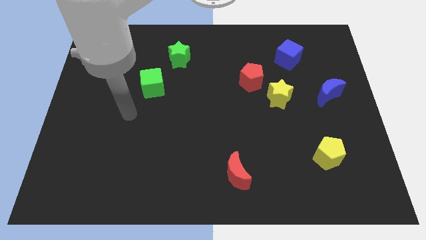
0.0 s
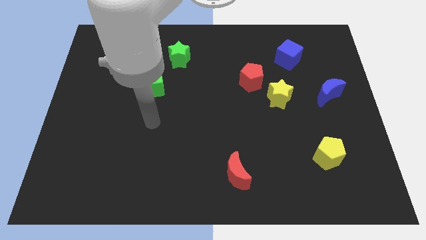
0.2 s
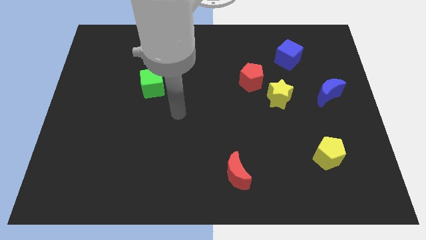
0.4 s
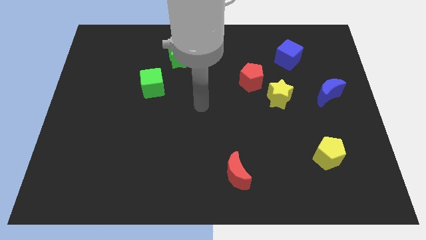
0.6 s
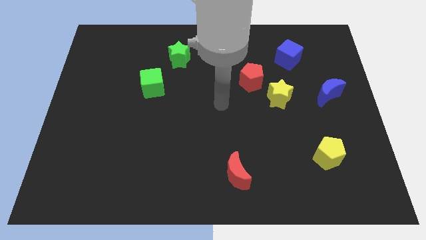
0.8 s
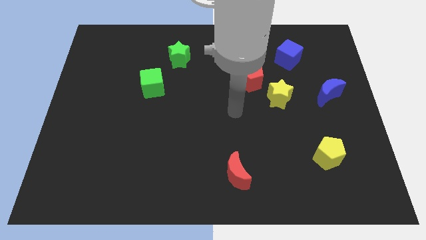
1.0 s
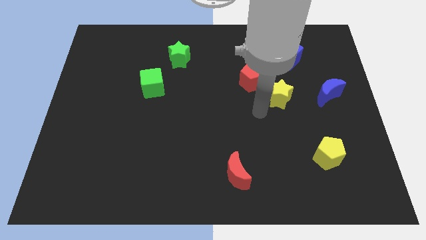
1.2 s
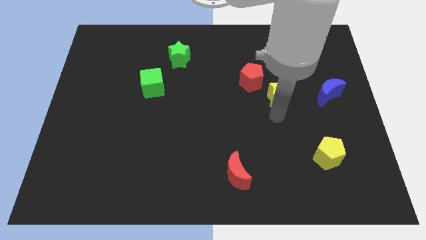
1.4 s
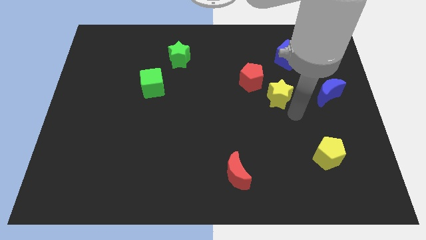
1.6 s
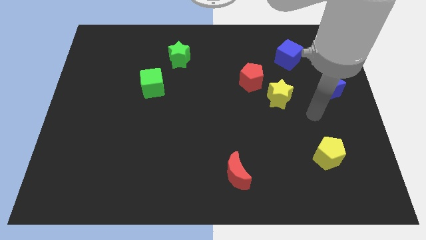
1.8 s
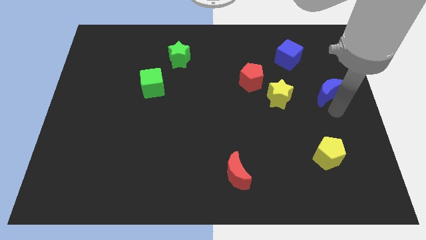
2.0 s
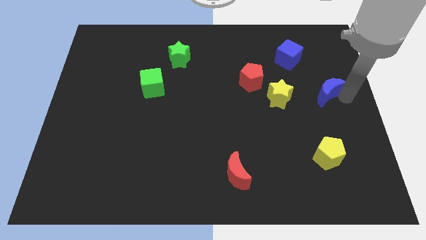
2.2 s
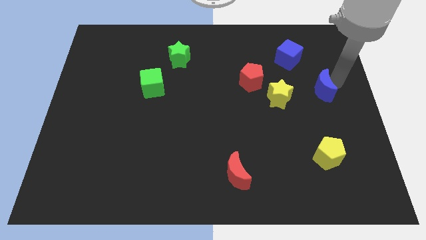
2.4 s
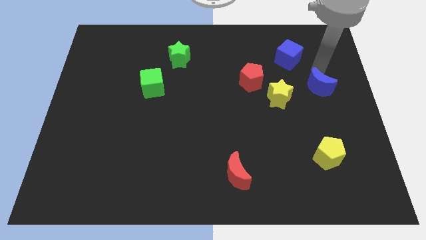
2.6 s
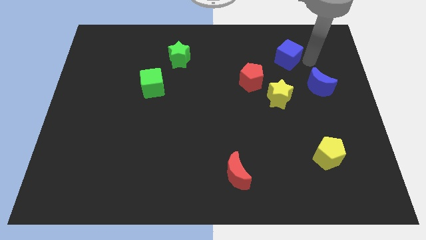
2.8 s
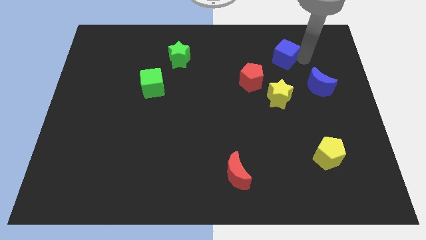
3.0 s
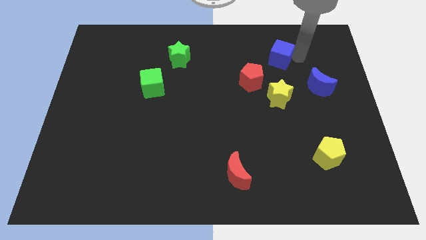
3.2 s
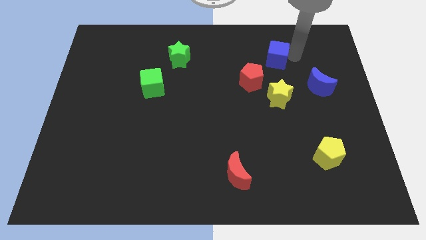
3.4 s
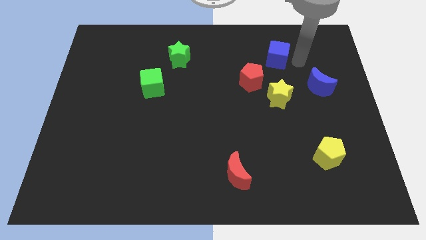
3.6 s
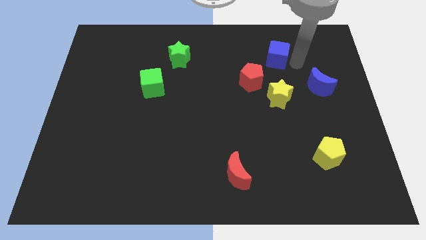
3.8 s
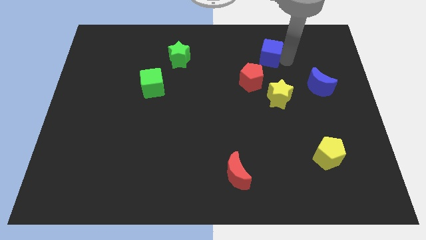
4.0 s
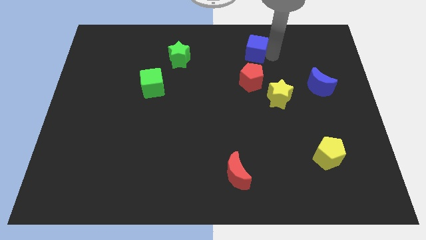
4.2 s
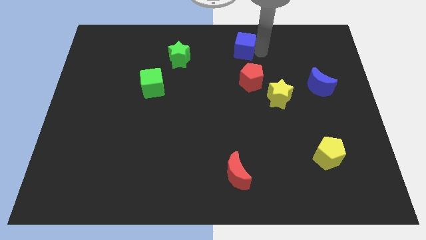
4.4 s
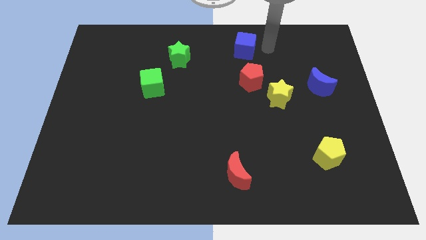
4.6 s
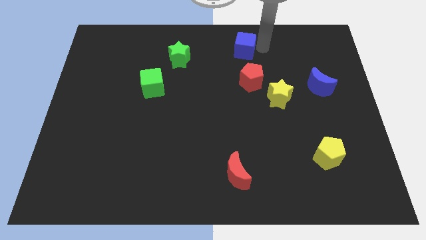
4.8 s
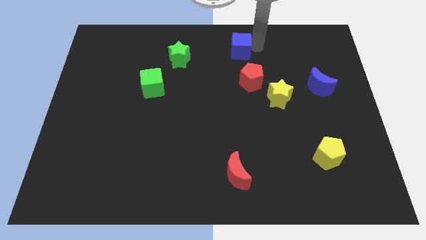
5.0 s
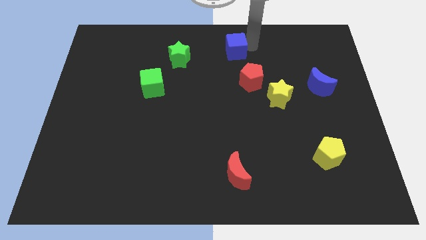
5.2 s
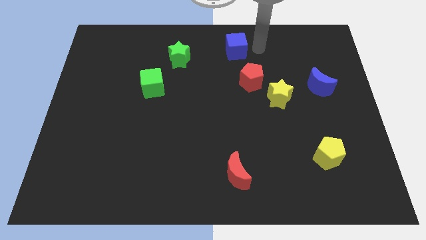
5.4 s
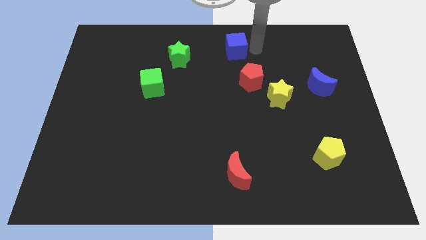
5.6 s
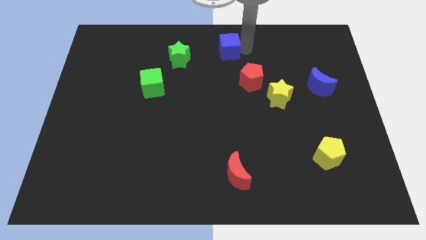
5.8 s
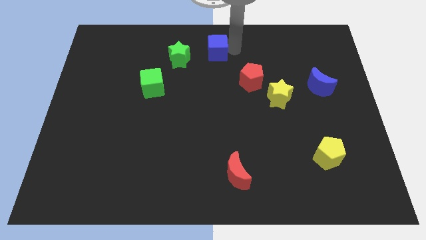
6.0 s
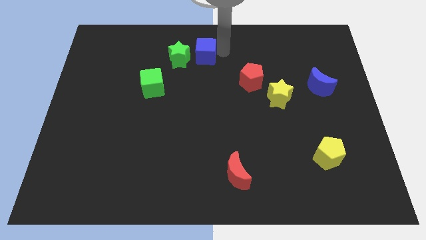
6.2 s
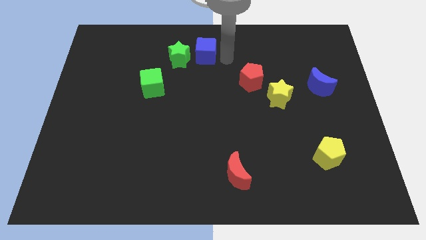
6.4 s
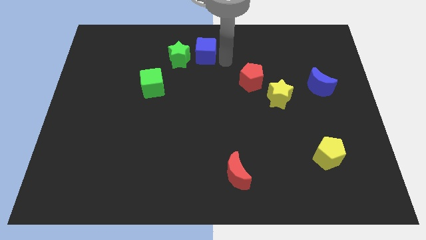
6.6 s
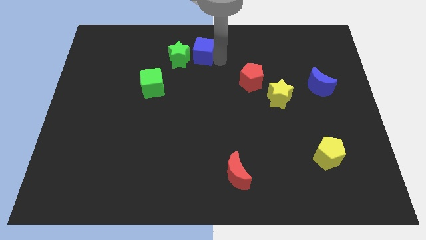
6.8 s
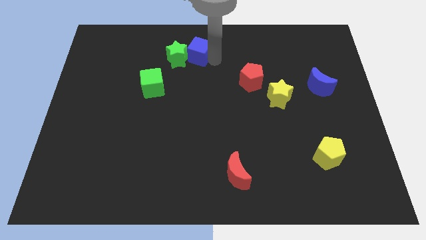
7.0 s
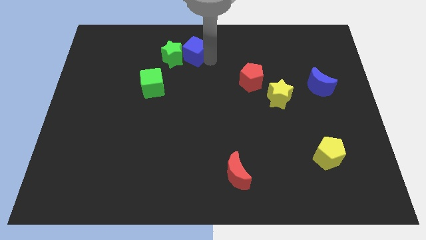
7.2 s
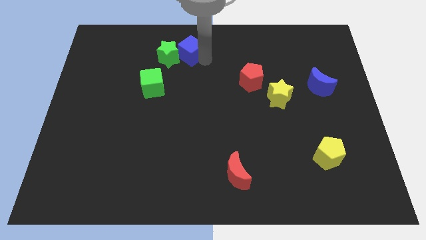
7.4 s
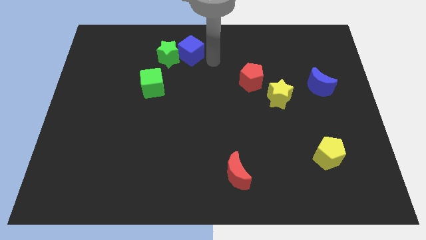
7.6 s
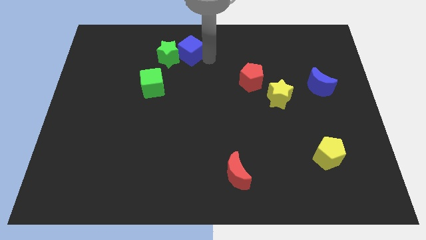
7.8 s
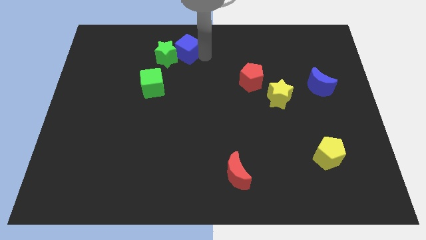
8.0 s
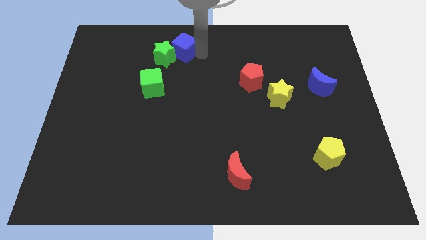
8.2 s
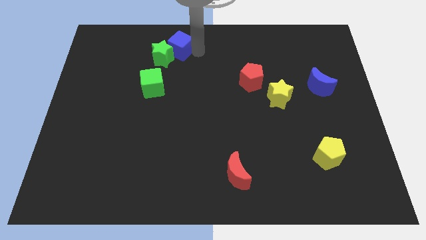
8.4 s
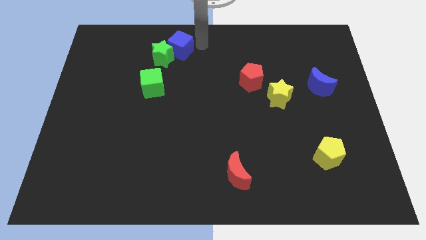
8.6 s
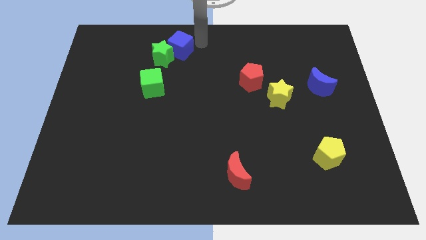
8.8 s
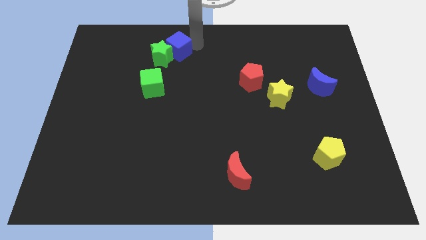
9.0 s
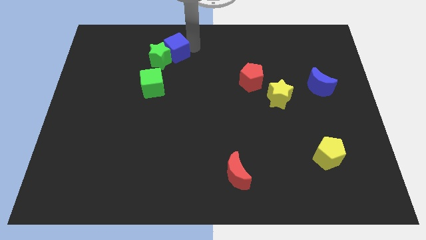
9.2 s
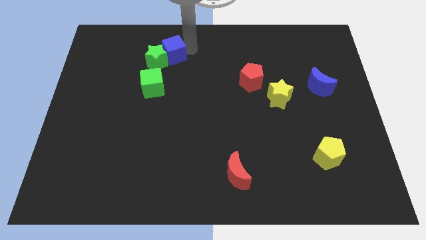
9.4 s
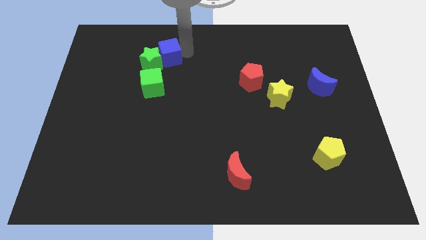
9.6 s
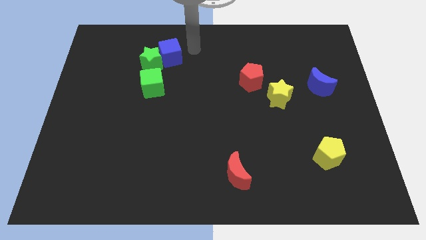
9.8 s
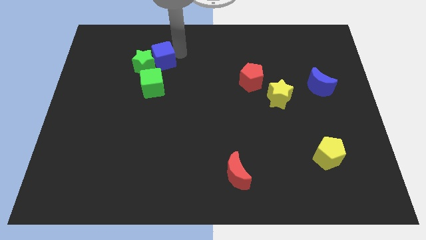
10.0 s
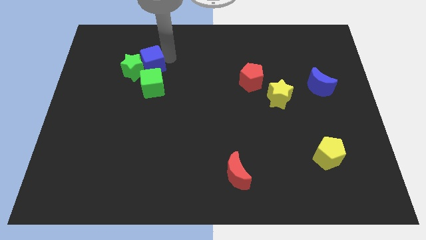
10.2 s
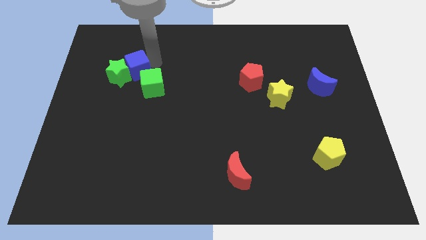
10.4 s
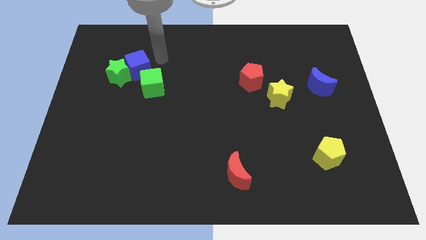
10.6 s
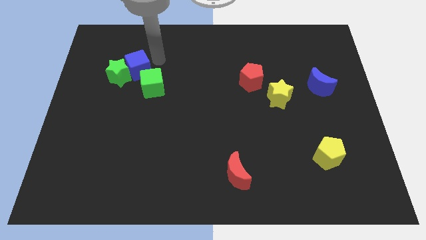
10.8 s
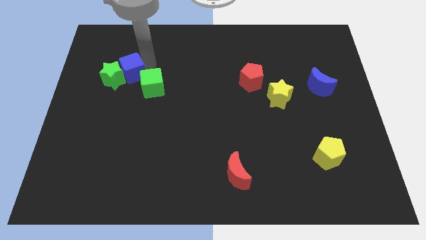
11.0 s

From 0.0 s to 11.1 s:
slide the blue cube to the left side of the green cube

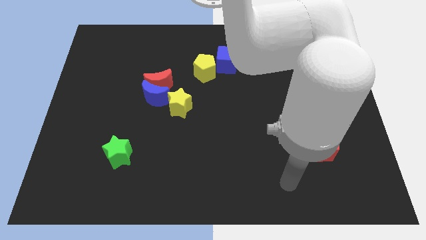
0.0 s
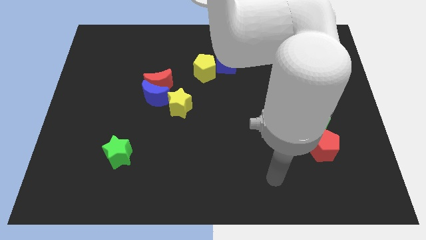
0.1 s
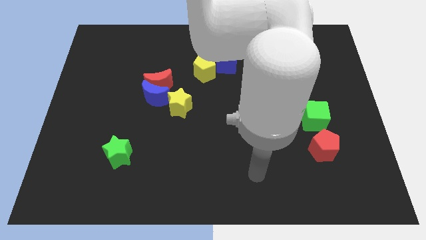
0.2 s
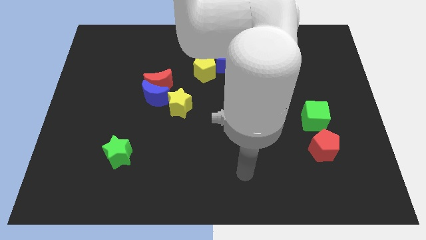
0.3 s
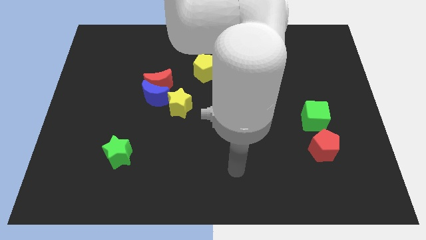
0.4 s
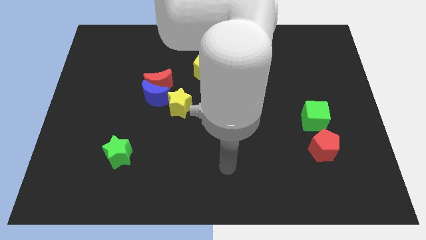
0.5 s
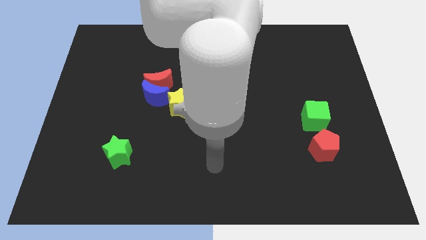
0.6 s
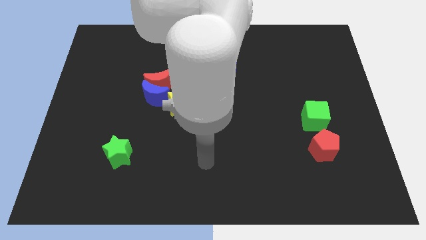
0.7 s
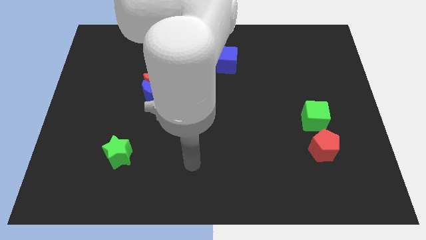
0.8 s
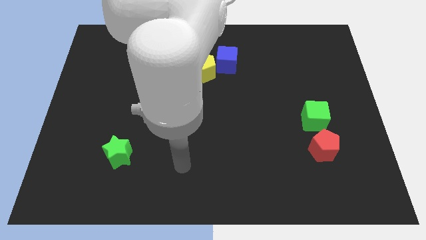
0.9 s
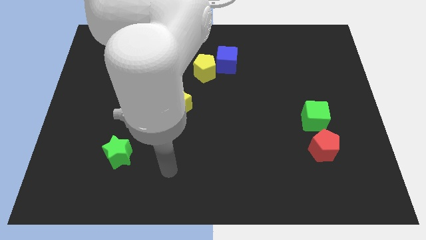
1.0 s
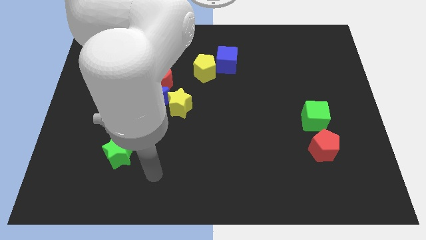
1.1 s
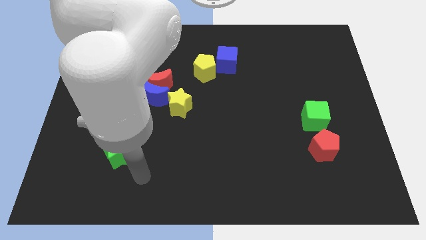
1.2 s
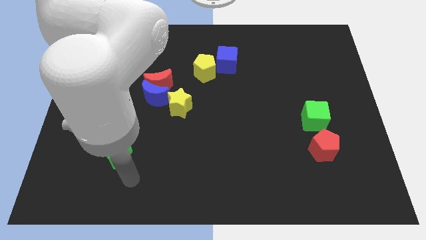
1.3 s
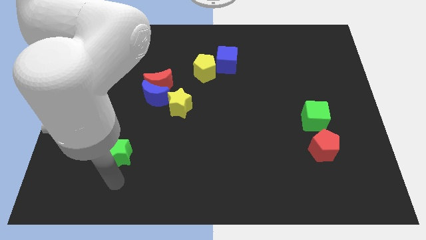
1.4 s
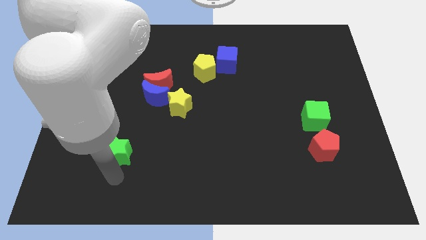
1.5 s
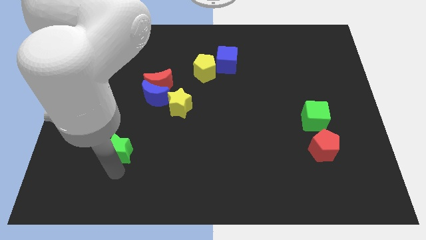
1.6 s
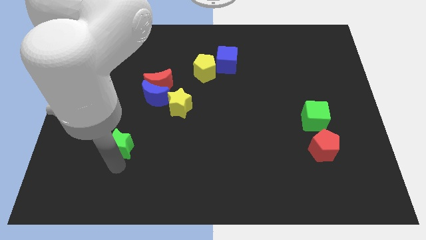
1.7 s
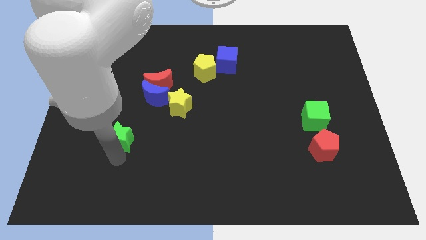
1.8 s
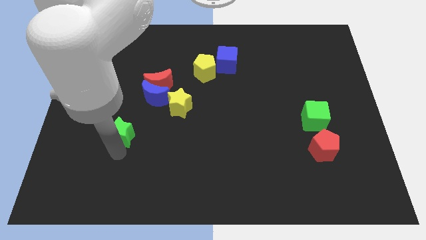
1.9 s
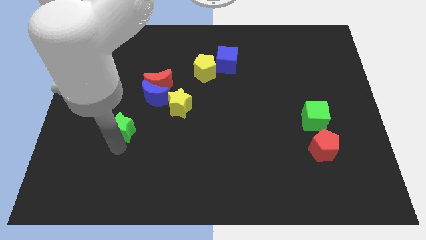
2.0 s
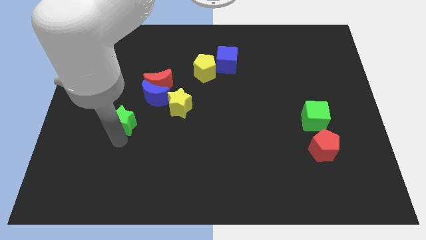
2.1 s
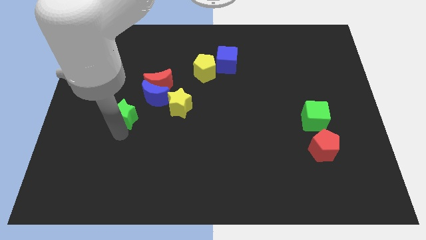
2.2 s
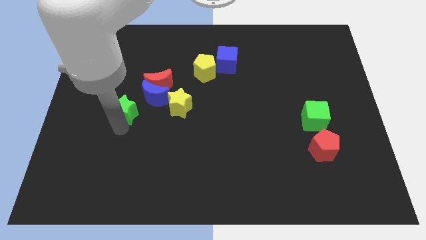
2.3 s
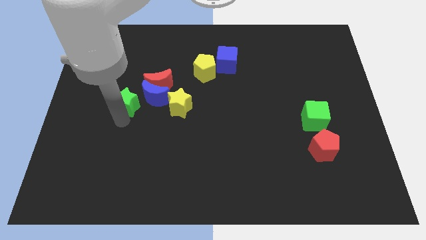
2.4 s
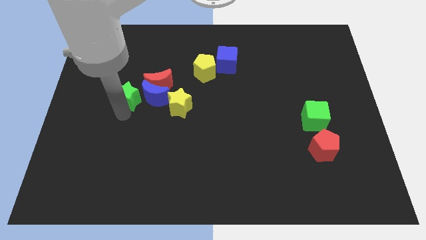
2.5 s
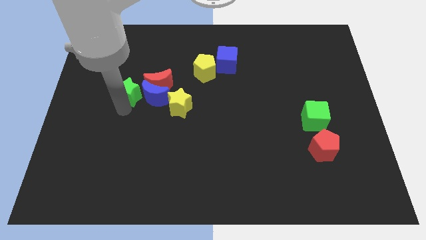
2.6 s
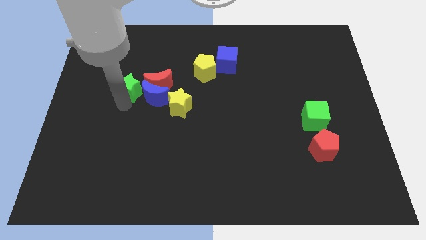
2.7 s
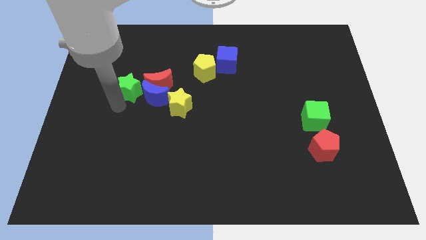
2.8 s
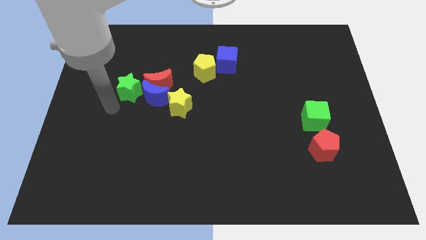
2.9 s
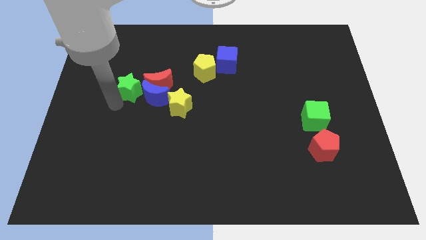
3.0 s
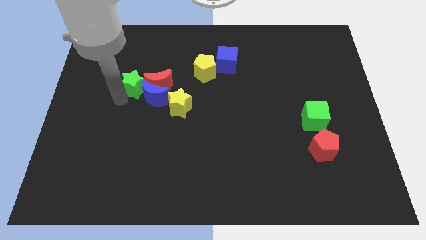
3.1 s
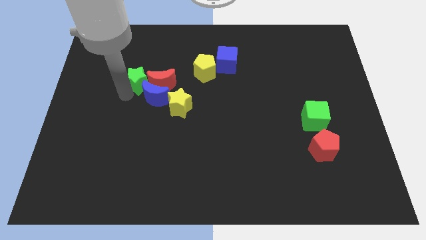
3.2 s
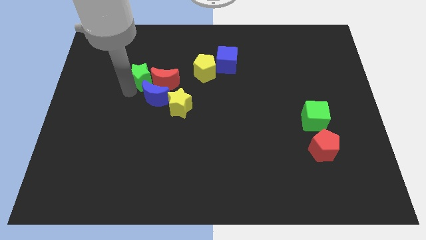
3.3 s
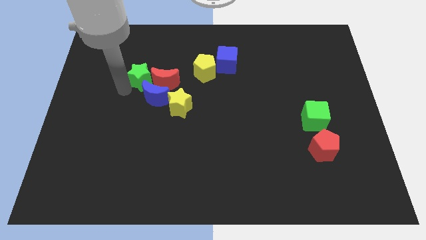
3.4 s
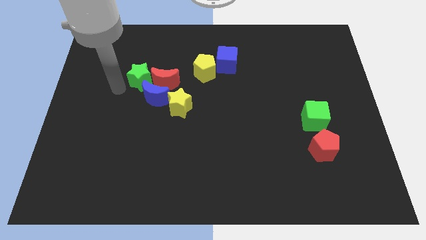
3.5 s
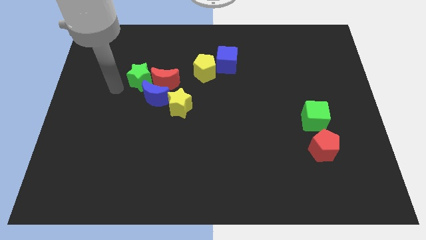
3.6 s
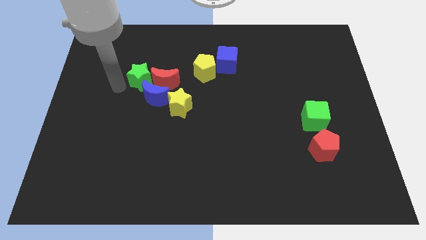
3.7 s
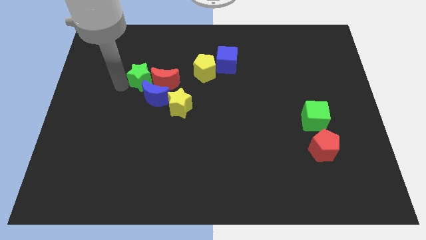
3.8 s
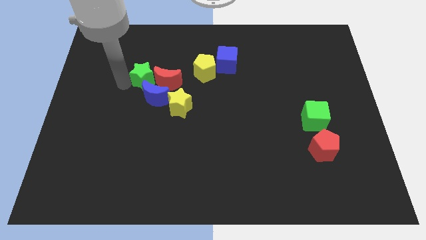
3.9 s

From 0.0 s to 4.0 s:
slide the green star left of the yellow pentagon
